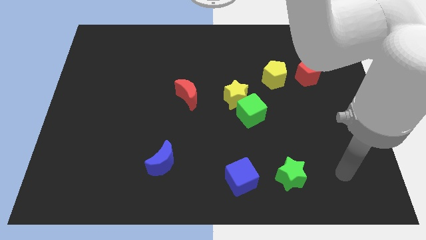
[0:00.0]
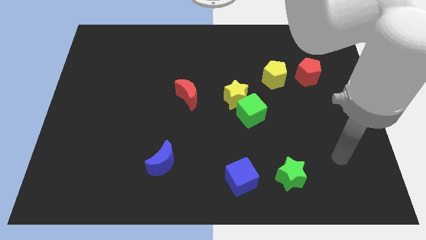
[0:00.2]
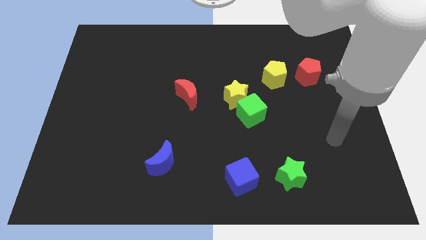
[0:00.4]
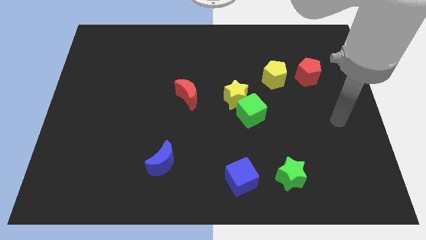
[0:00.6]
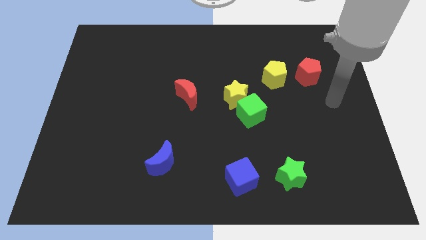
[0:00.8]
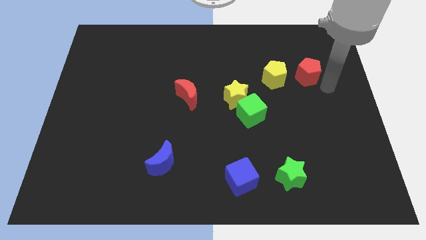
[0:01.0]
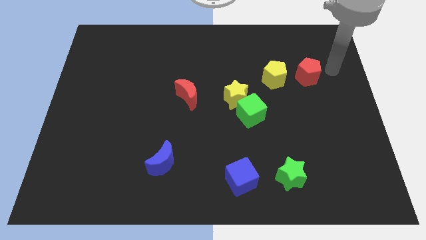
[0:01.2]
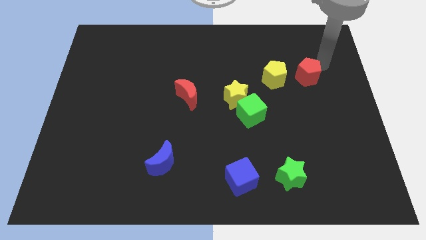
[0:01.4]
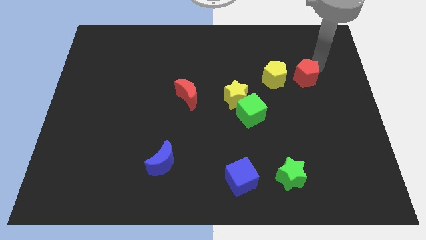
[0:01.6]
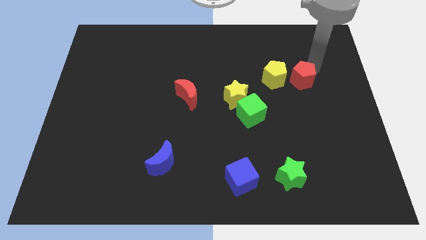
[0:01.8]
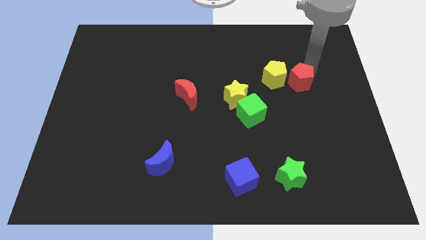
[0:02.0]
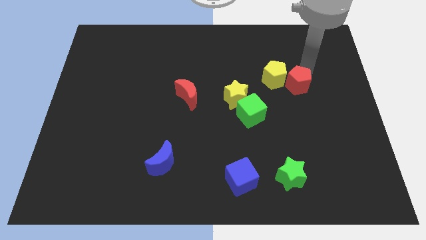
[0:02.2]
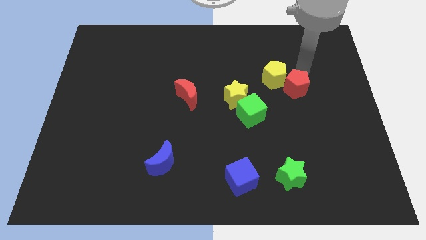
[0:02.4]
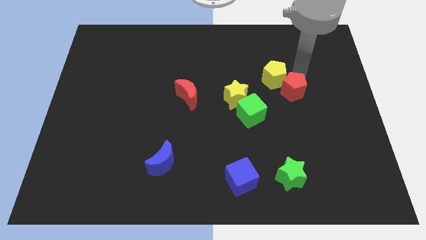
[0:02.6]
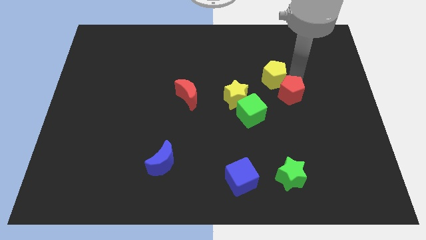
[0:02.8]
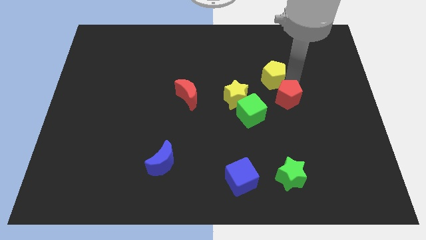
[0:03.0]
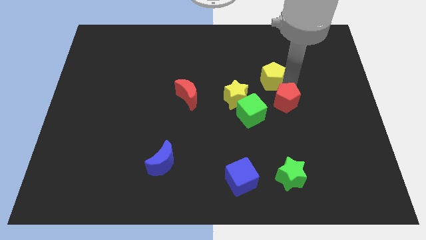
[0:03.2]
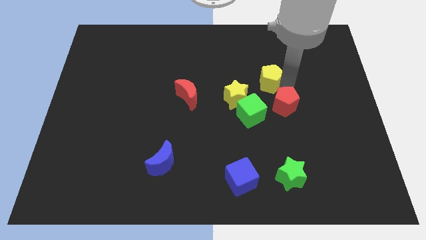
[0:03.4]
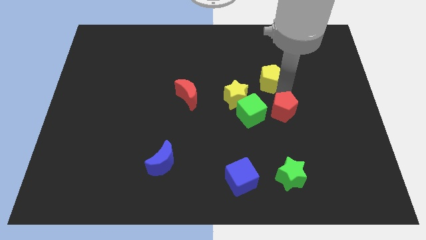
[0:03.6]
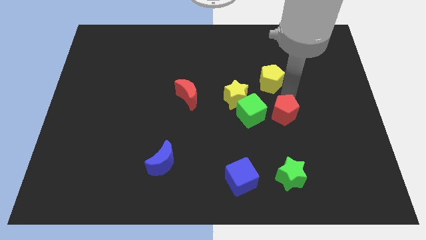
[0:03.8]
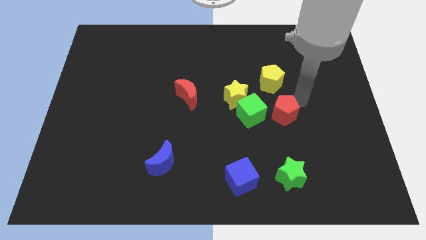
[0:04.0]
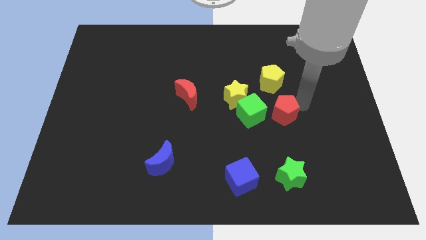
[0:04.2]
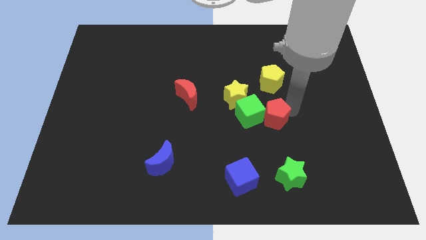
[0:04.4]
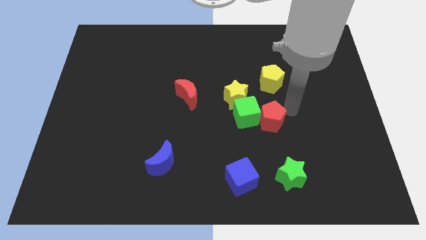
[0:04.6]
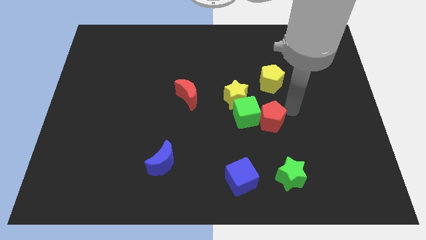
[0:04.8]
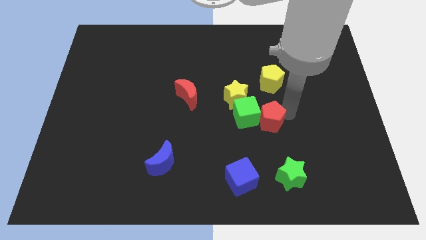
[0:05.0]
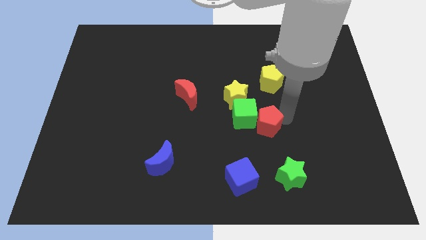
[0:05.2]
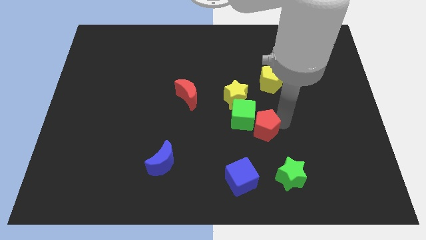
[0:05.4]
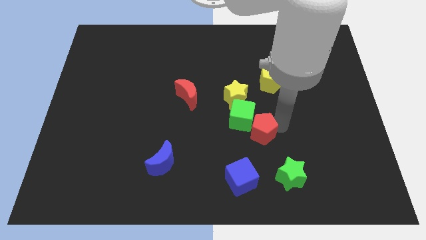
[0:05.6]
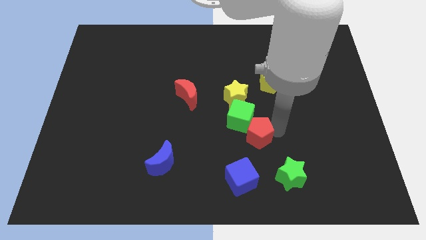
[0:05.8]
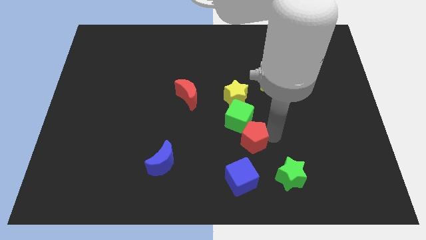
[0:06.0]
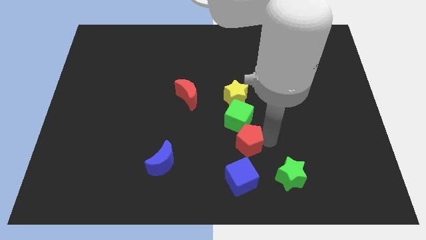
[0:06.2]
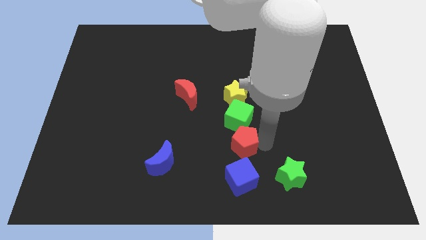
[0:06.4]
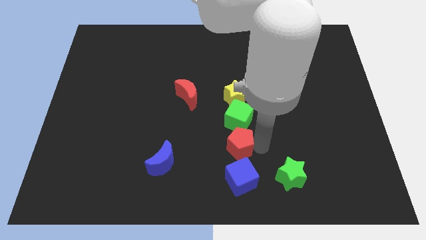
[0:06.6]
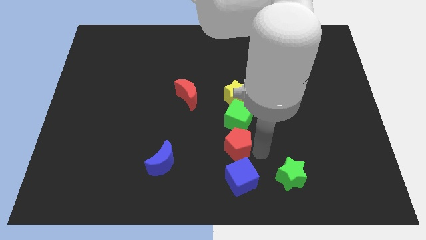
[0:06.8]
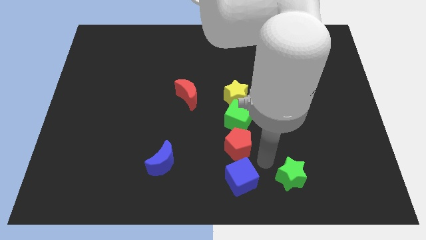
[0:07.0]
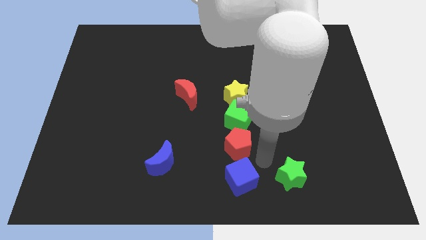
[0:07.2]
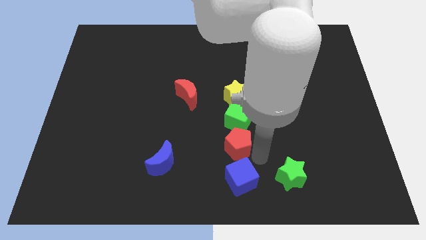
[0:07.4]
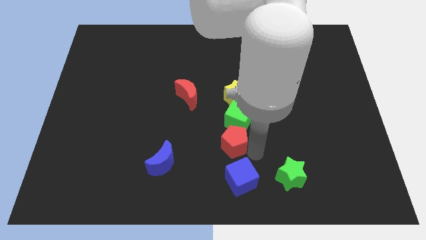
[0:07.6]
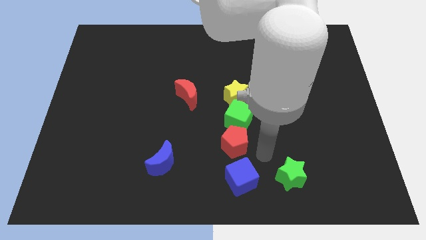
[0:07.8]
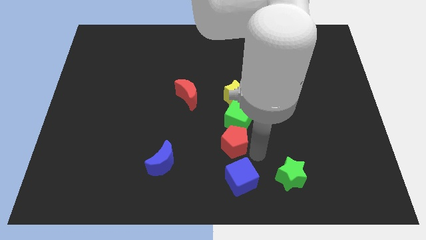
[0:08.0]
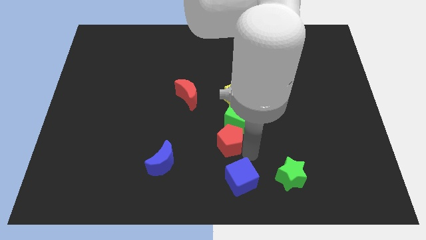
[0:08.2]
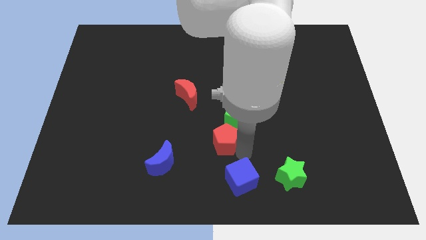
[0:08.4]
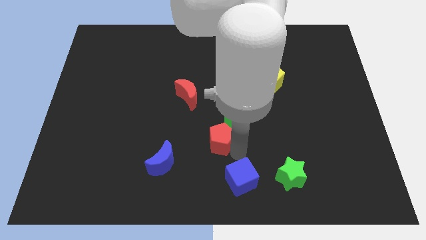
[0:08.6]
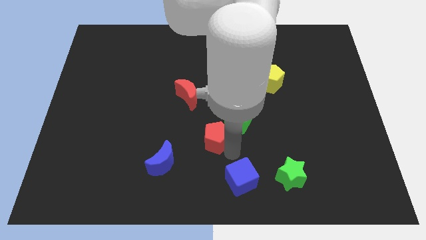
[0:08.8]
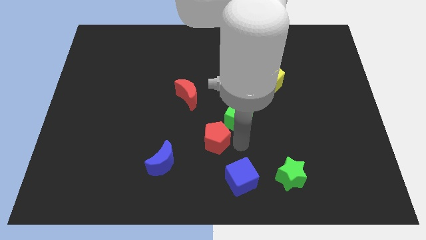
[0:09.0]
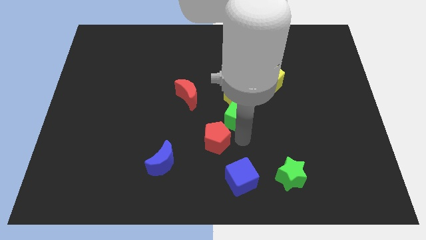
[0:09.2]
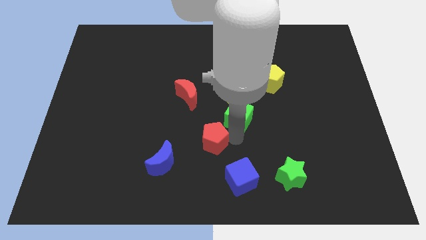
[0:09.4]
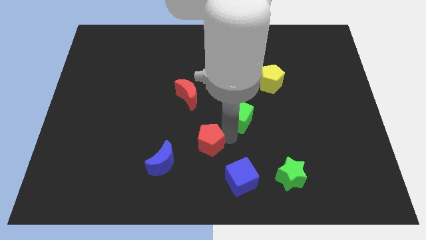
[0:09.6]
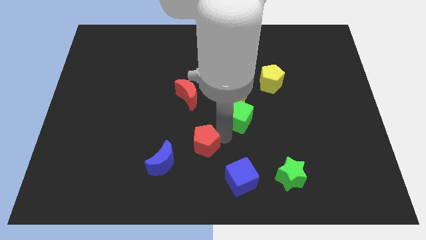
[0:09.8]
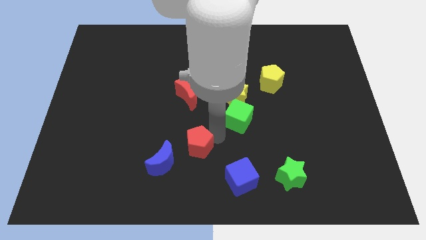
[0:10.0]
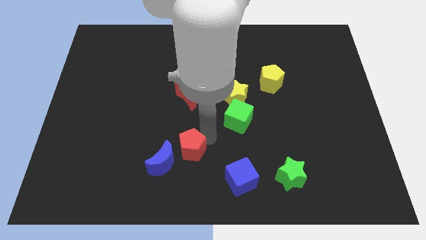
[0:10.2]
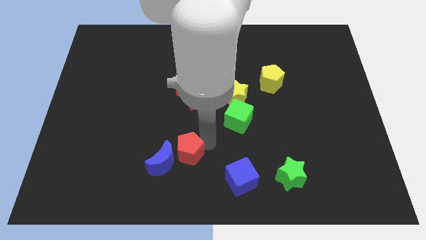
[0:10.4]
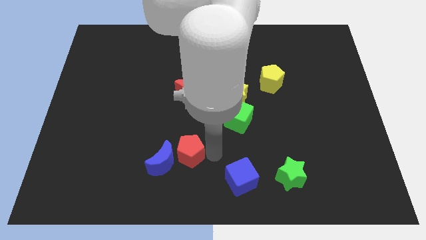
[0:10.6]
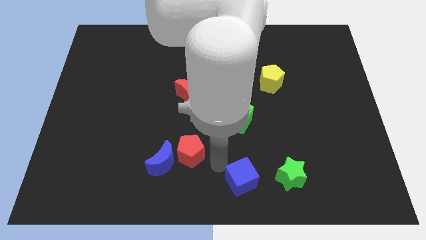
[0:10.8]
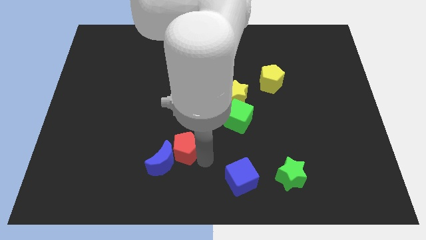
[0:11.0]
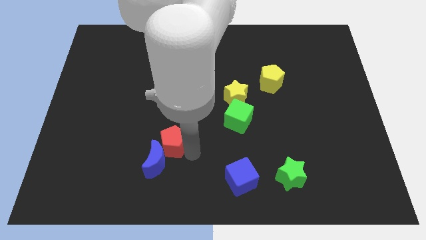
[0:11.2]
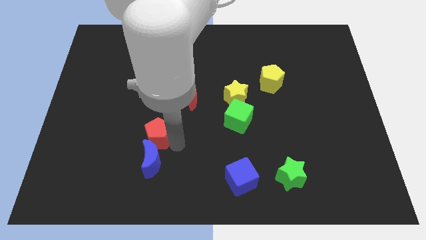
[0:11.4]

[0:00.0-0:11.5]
push the red pentagon diagonally up and to the left of the blue moon

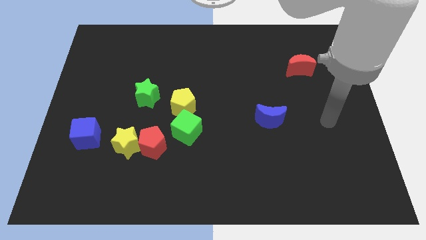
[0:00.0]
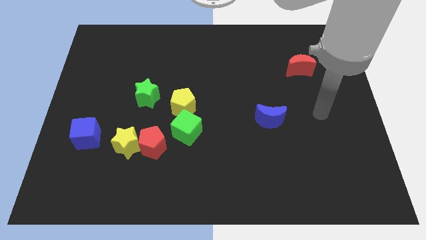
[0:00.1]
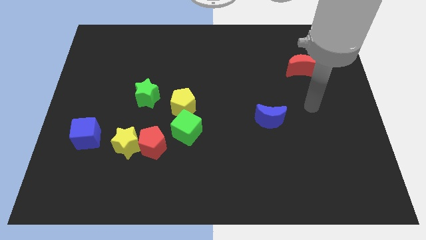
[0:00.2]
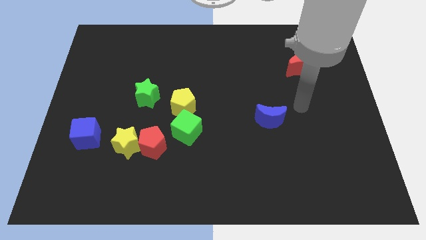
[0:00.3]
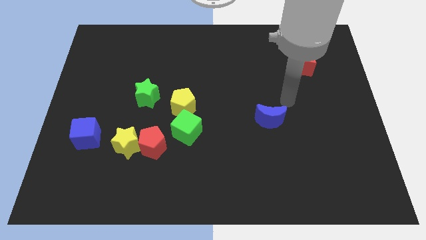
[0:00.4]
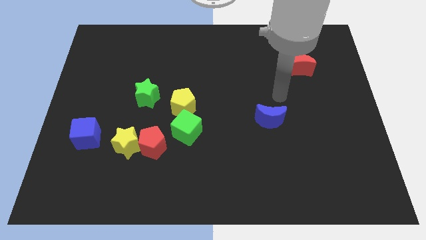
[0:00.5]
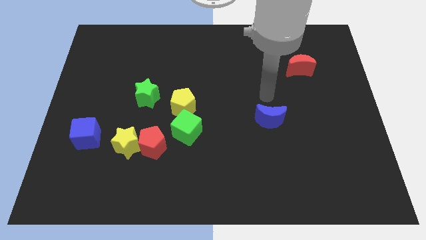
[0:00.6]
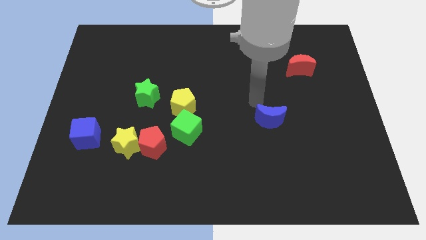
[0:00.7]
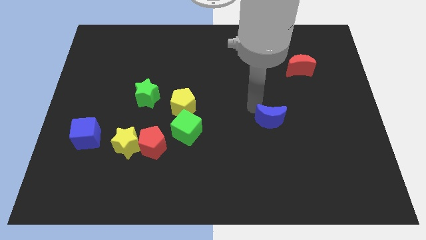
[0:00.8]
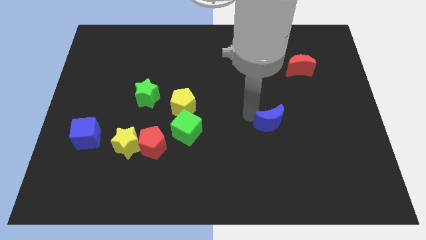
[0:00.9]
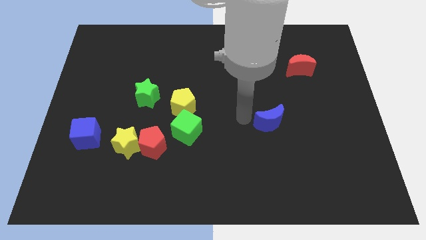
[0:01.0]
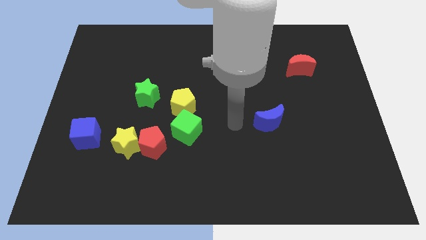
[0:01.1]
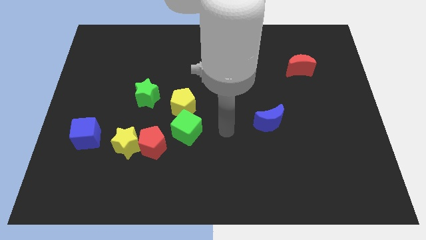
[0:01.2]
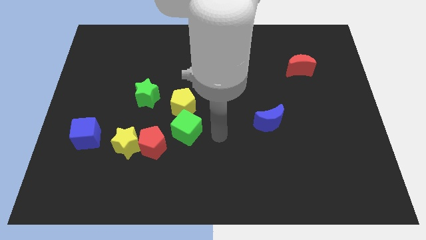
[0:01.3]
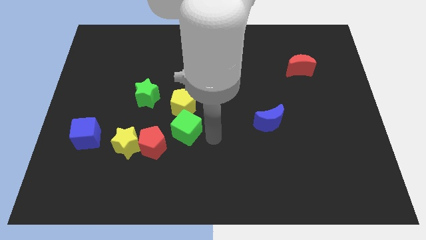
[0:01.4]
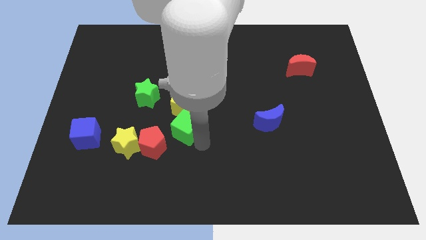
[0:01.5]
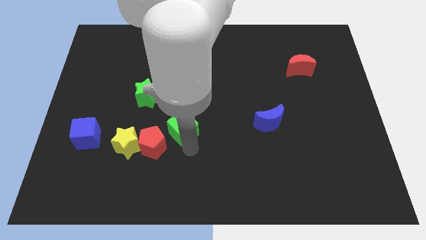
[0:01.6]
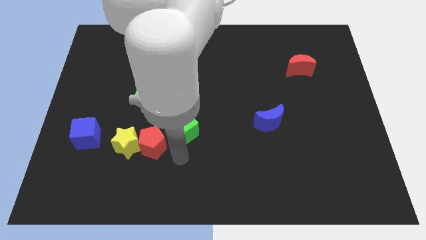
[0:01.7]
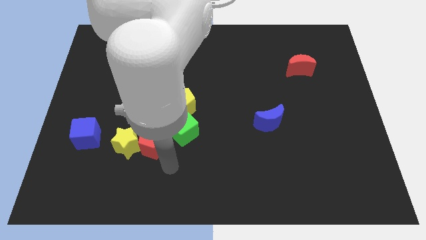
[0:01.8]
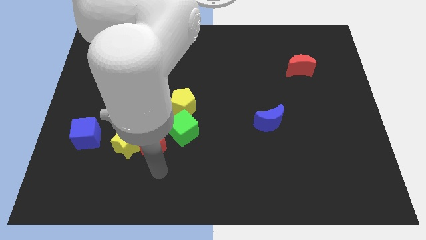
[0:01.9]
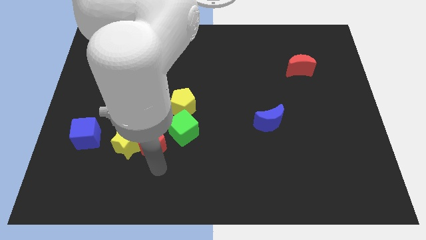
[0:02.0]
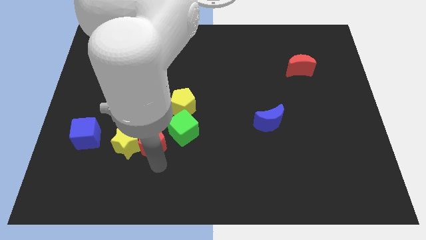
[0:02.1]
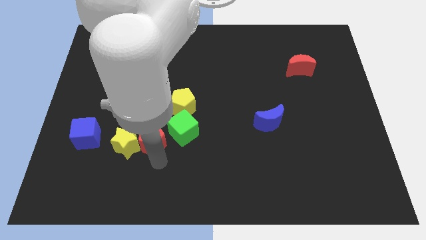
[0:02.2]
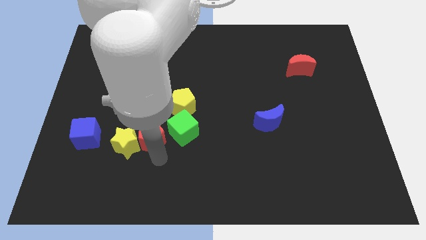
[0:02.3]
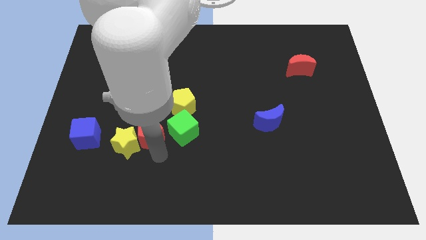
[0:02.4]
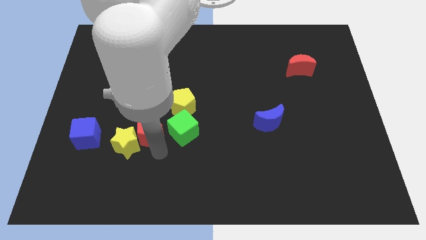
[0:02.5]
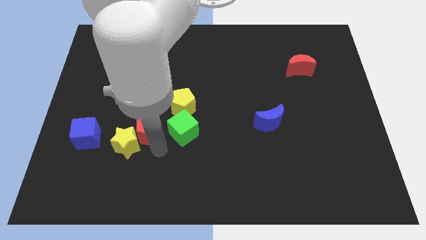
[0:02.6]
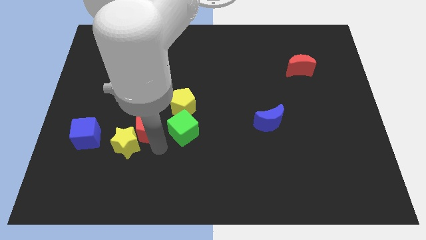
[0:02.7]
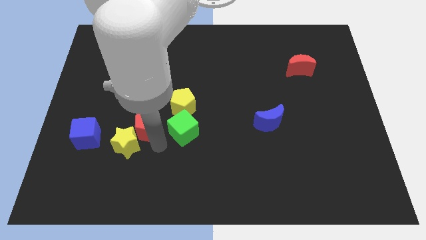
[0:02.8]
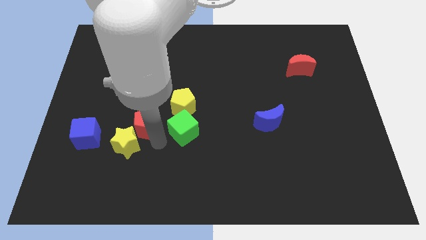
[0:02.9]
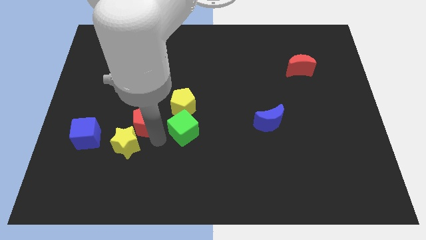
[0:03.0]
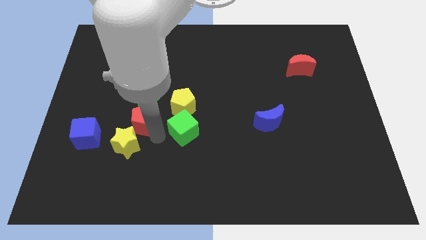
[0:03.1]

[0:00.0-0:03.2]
slide the red pentagon to the left of the yellow pentagon
